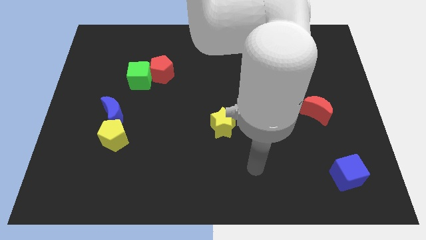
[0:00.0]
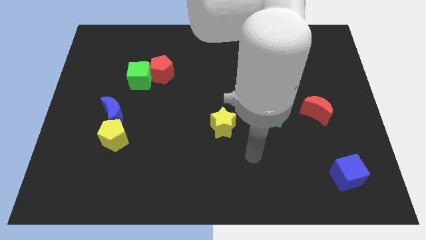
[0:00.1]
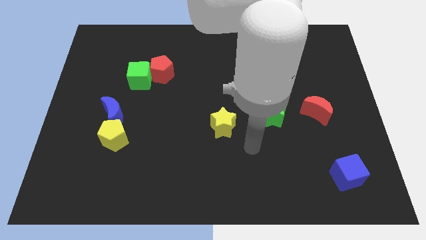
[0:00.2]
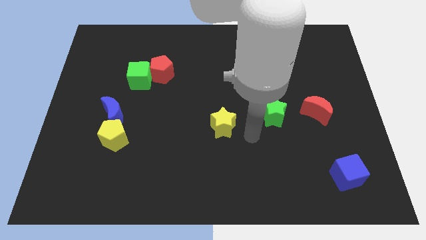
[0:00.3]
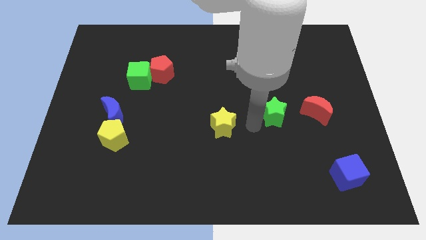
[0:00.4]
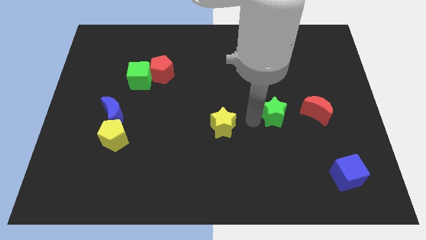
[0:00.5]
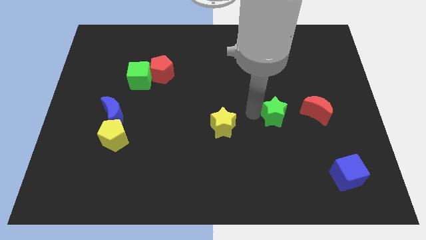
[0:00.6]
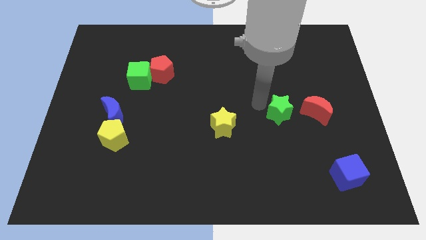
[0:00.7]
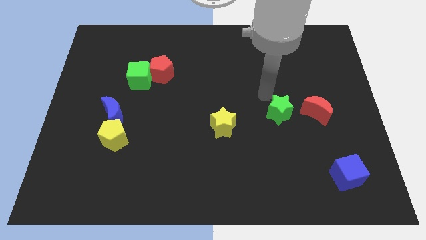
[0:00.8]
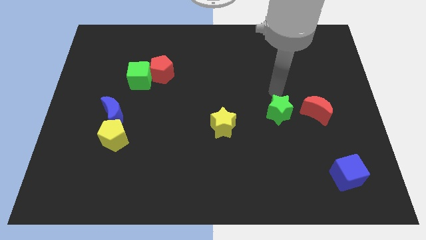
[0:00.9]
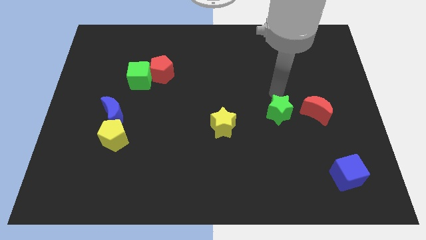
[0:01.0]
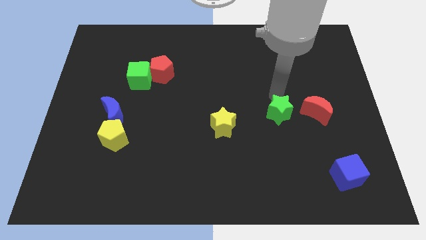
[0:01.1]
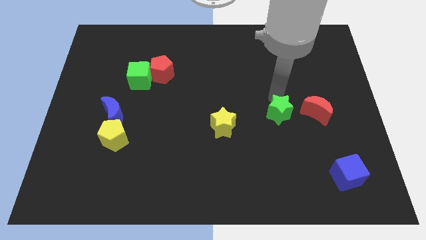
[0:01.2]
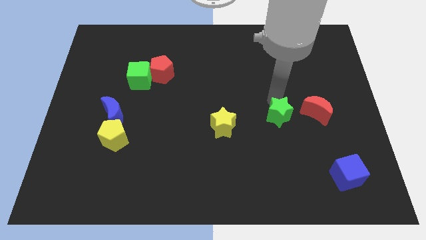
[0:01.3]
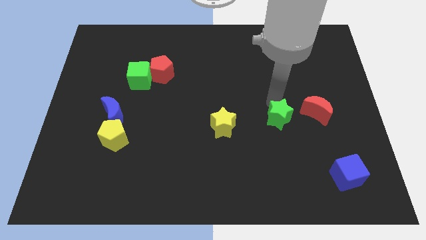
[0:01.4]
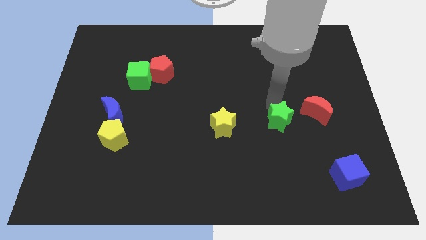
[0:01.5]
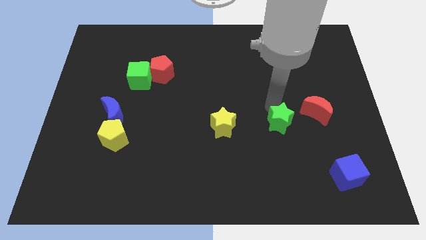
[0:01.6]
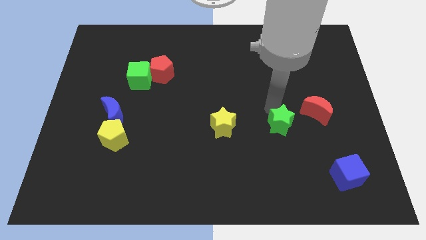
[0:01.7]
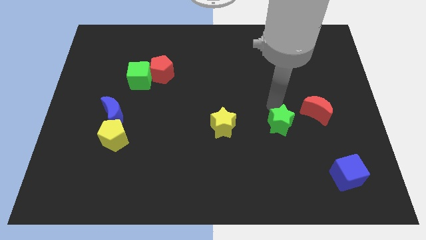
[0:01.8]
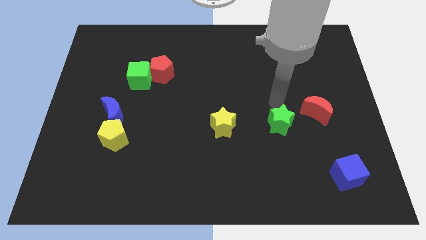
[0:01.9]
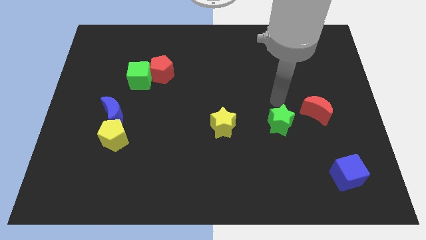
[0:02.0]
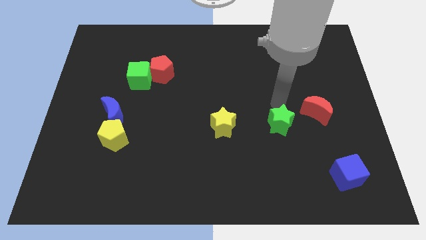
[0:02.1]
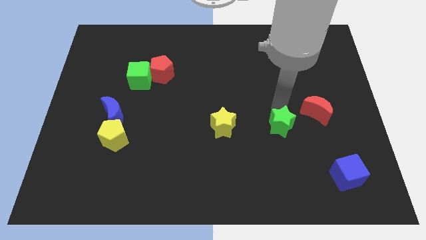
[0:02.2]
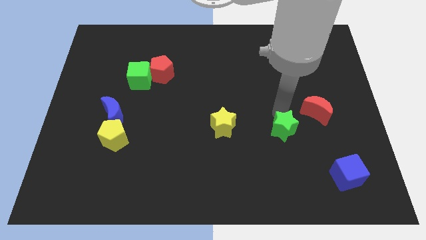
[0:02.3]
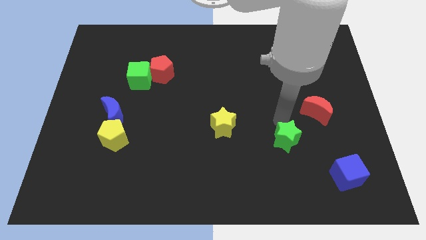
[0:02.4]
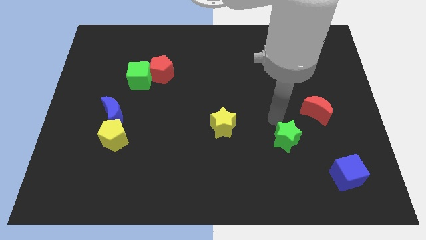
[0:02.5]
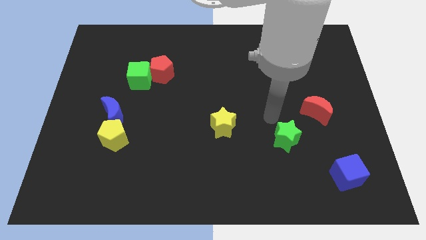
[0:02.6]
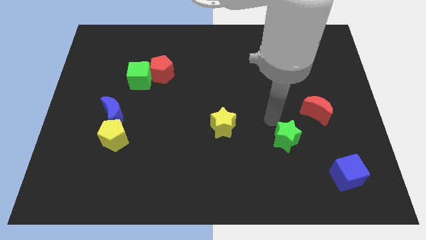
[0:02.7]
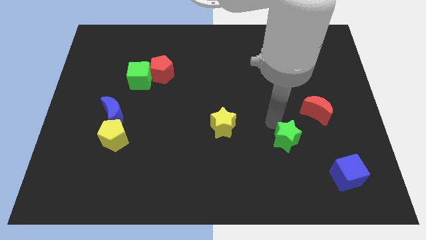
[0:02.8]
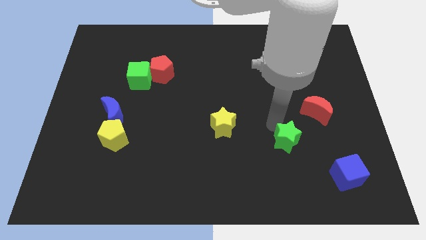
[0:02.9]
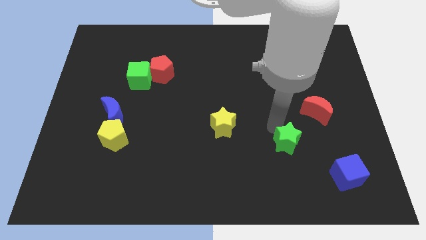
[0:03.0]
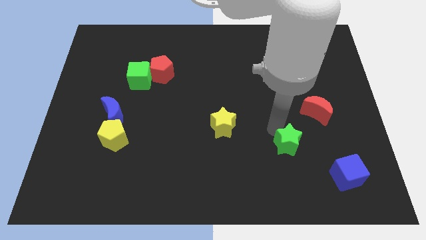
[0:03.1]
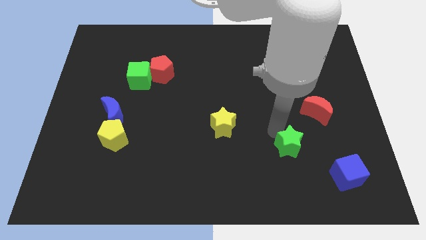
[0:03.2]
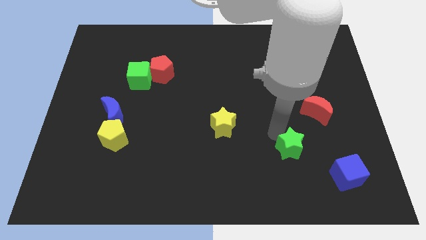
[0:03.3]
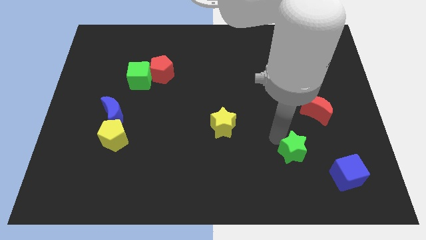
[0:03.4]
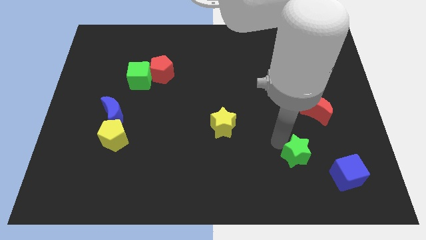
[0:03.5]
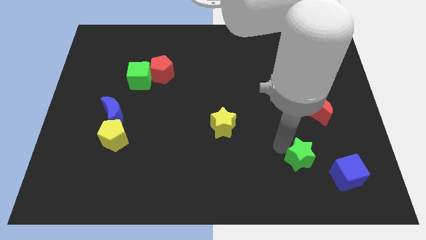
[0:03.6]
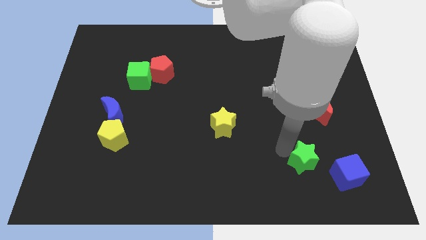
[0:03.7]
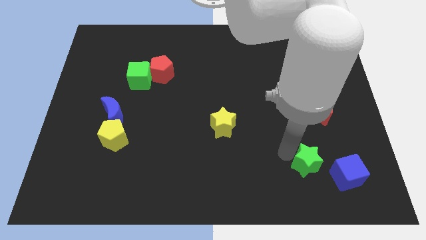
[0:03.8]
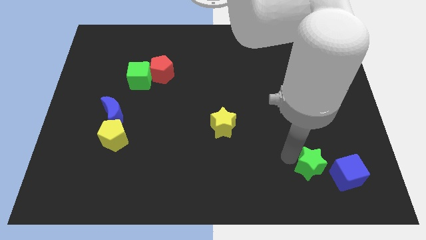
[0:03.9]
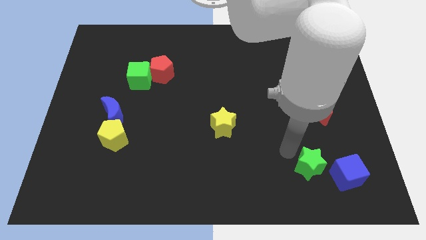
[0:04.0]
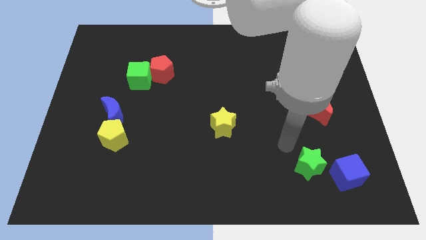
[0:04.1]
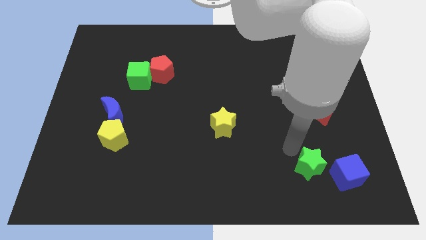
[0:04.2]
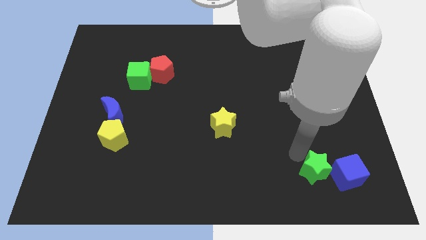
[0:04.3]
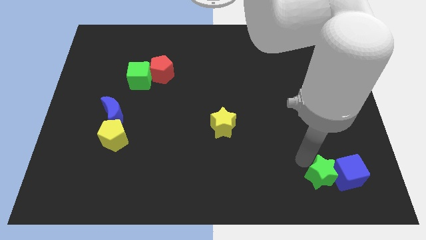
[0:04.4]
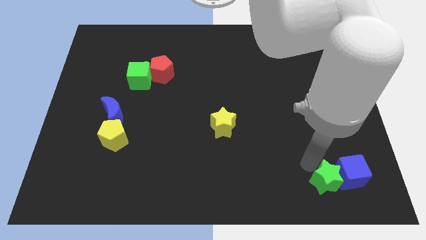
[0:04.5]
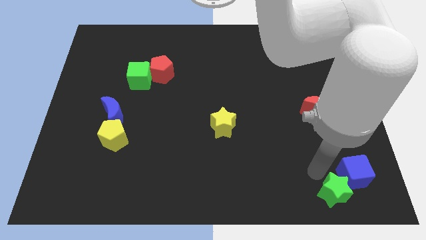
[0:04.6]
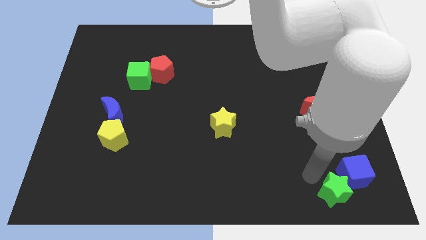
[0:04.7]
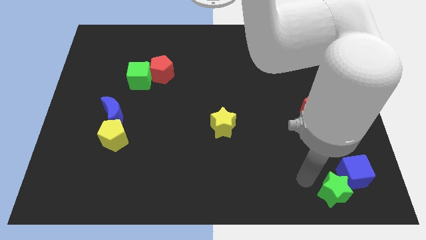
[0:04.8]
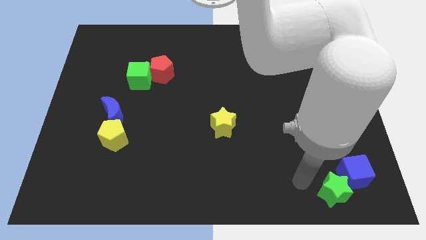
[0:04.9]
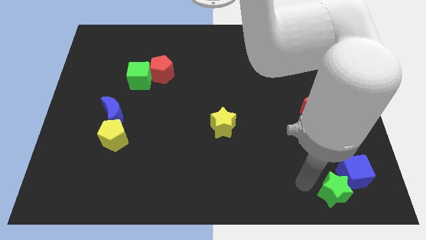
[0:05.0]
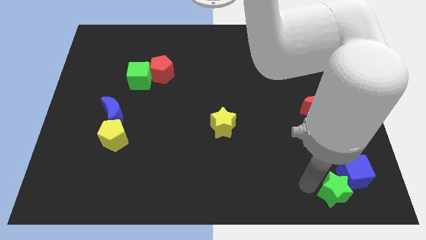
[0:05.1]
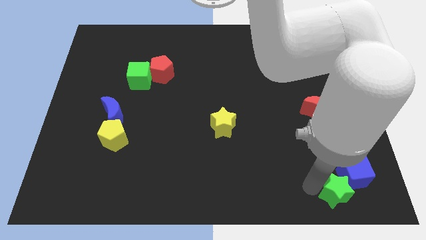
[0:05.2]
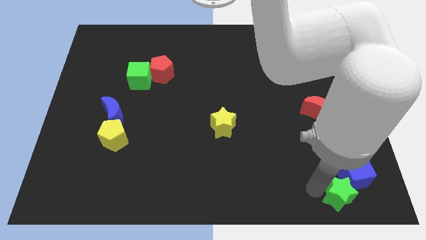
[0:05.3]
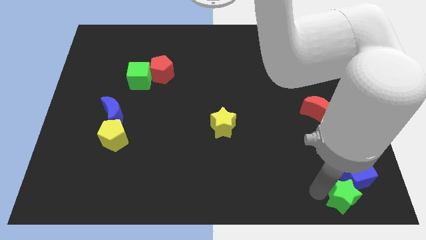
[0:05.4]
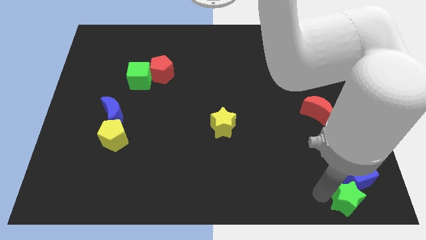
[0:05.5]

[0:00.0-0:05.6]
move the green star to the bottom right corner

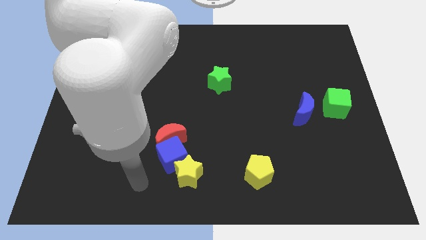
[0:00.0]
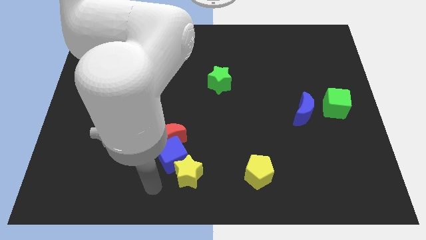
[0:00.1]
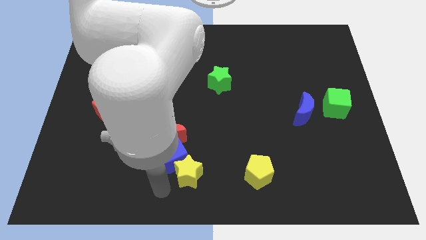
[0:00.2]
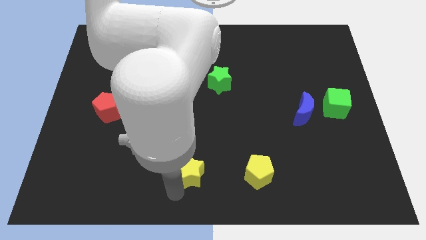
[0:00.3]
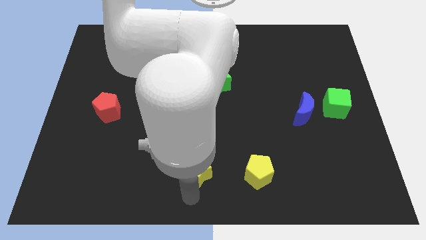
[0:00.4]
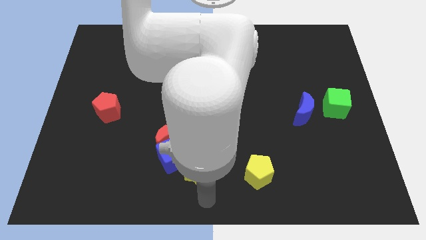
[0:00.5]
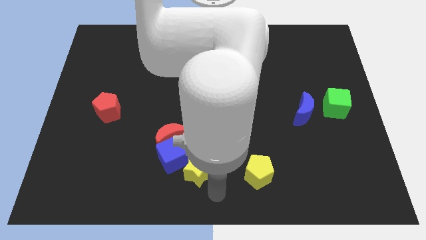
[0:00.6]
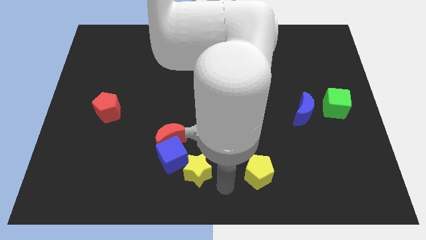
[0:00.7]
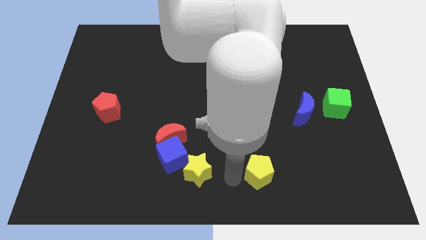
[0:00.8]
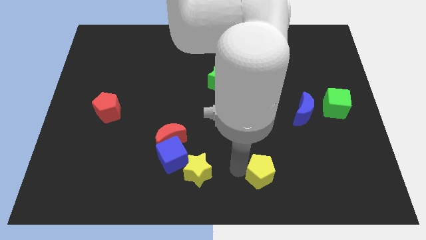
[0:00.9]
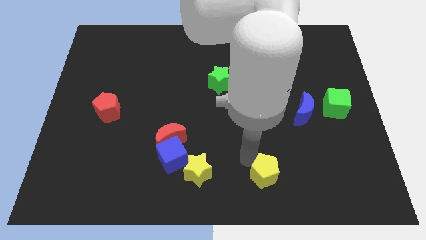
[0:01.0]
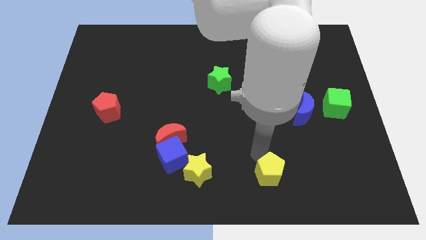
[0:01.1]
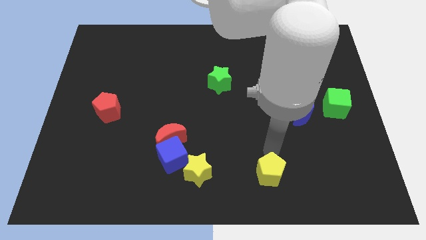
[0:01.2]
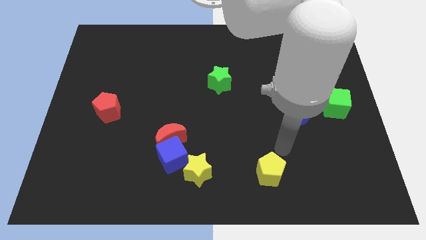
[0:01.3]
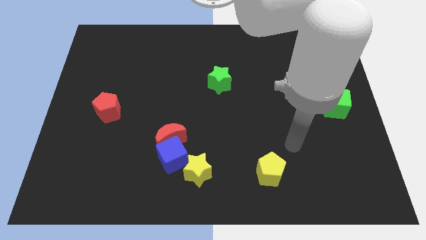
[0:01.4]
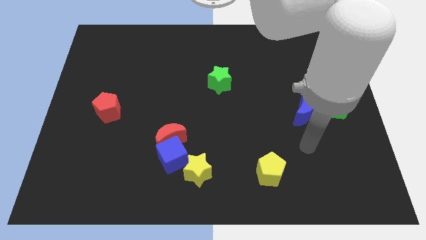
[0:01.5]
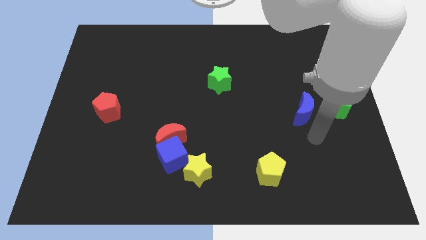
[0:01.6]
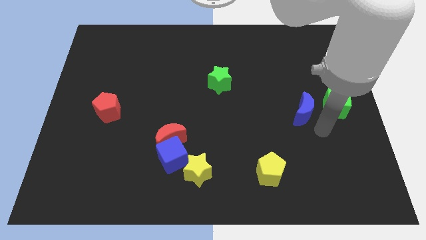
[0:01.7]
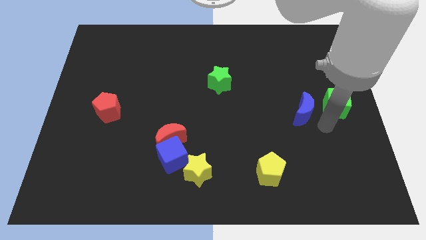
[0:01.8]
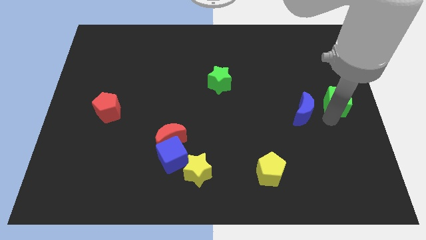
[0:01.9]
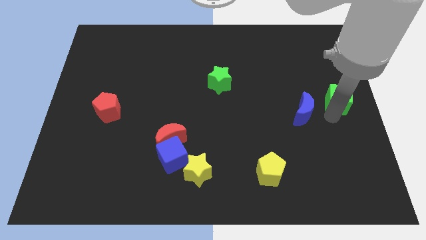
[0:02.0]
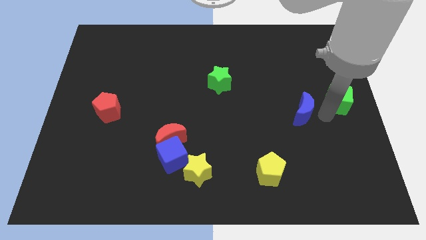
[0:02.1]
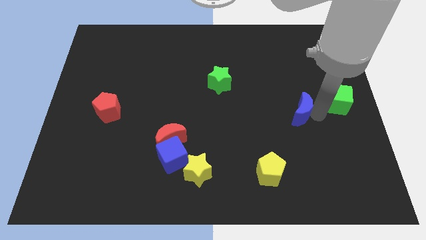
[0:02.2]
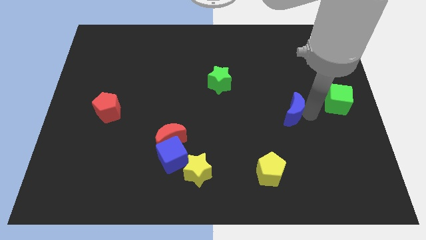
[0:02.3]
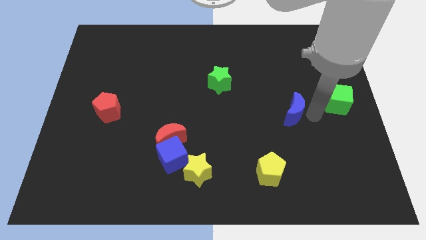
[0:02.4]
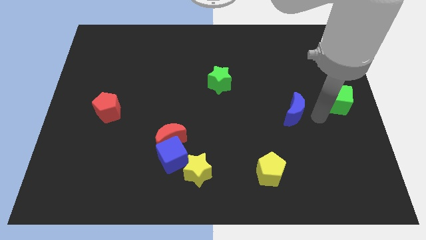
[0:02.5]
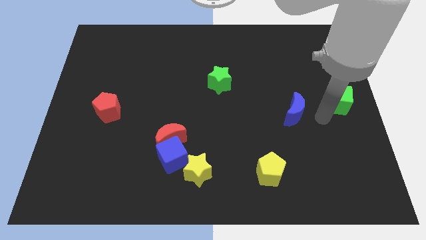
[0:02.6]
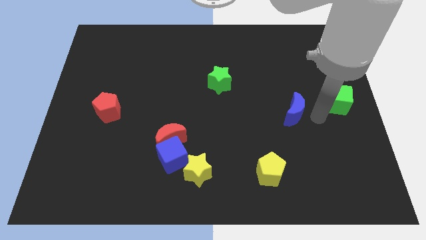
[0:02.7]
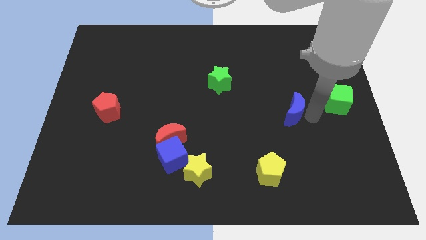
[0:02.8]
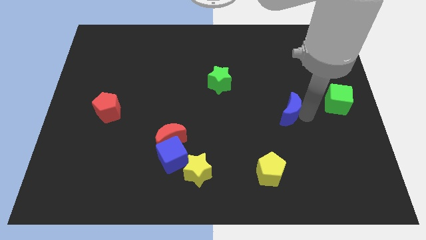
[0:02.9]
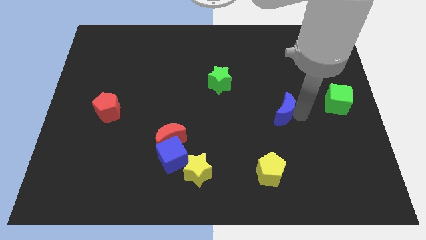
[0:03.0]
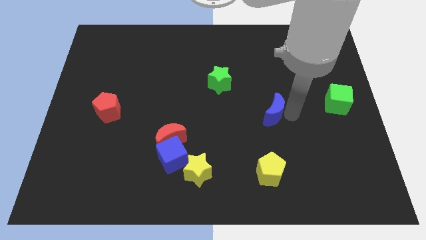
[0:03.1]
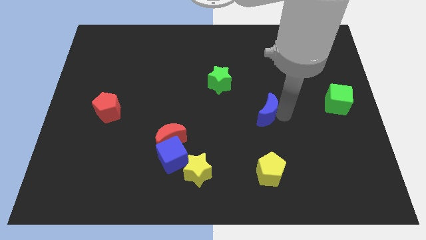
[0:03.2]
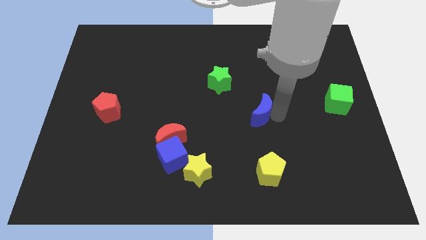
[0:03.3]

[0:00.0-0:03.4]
push the blue moon to the center of the board
